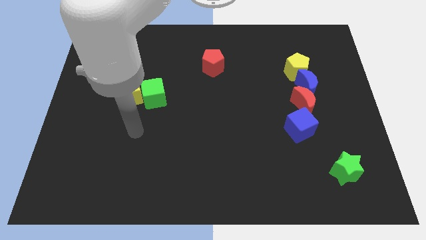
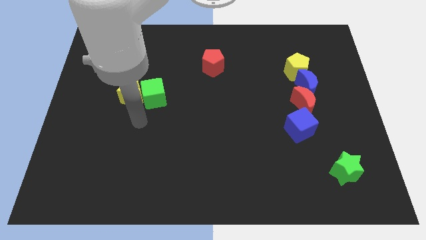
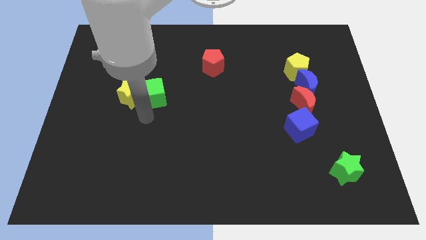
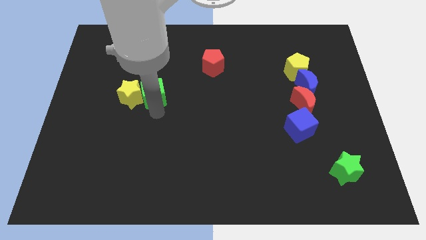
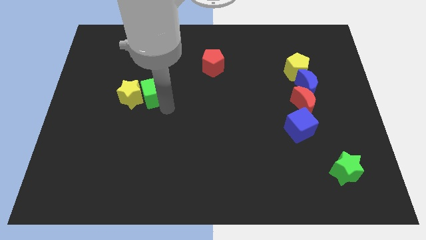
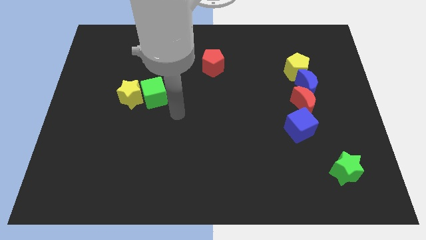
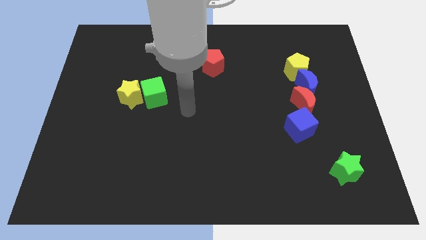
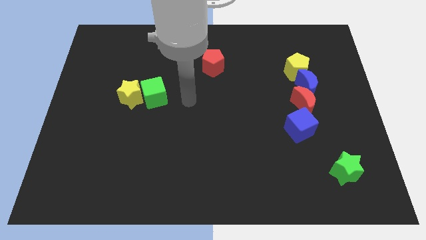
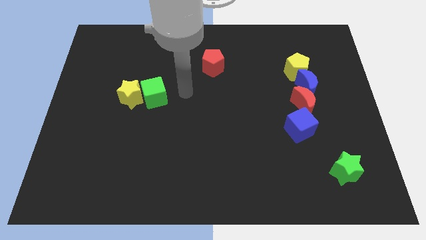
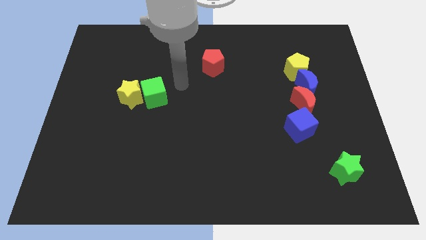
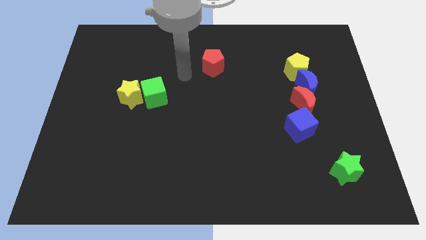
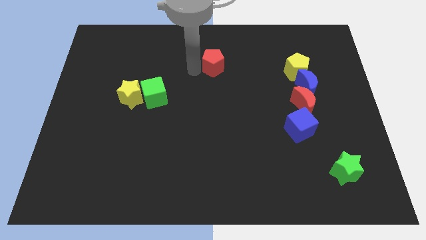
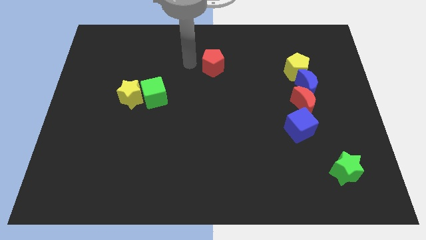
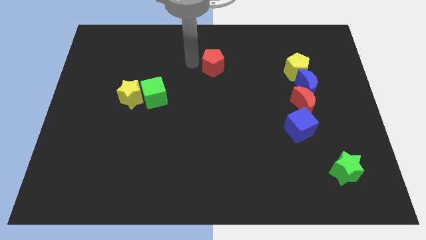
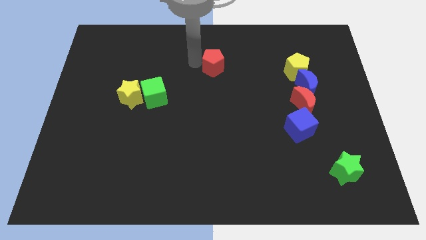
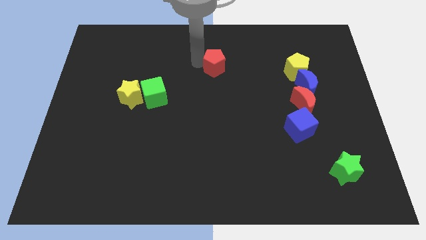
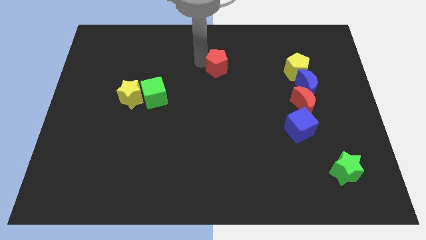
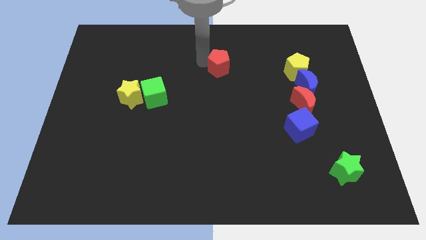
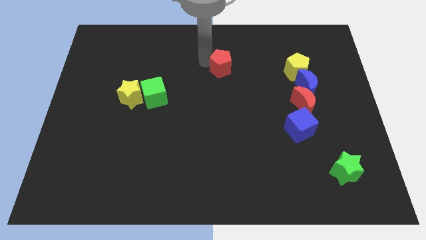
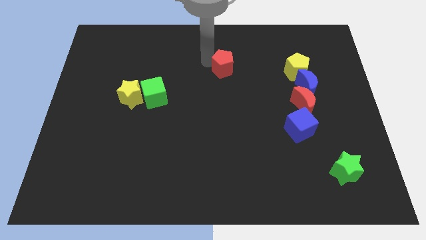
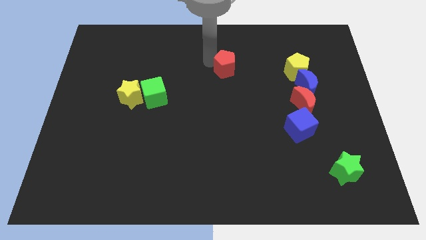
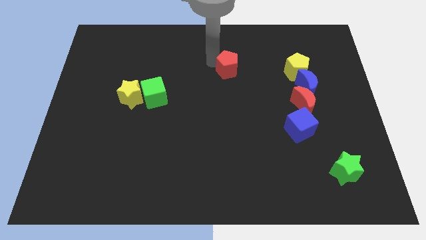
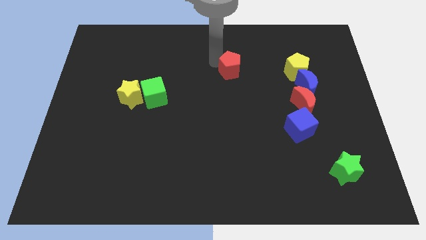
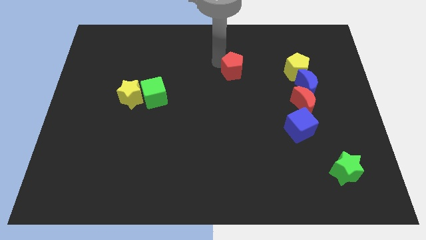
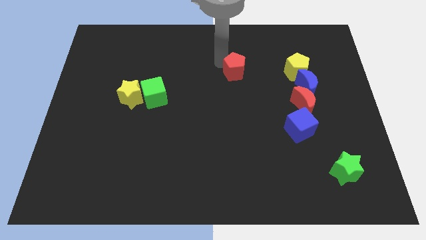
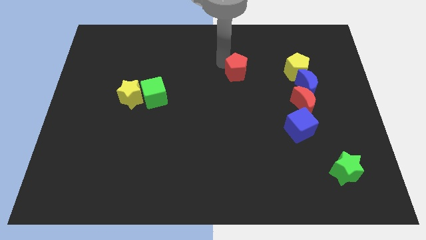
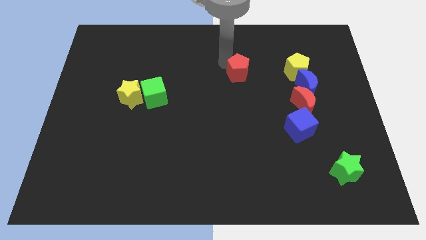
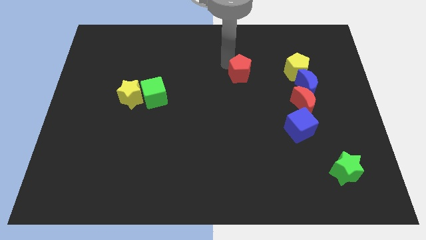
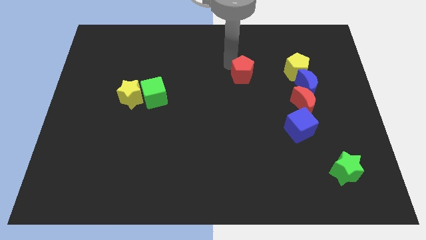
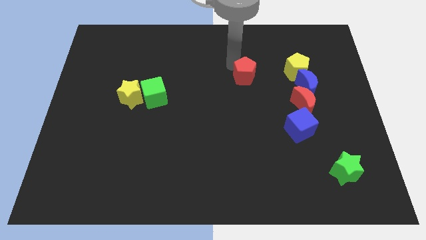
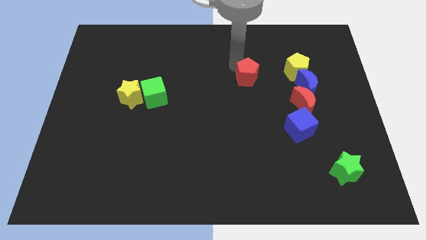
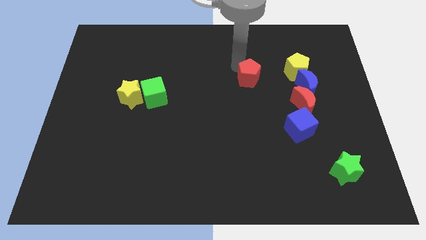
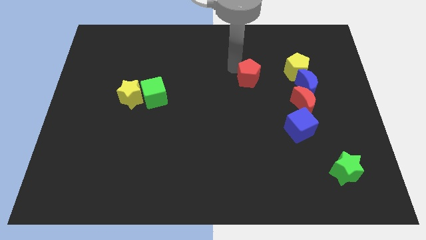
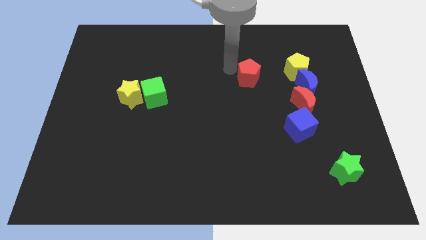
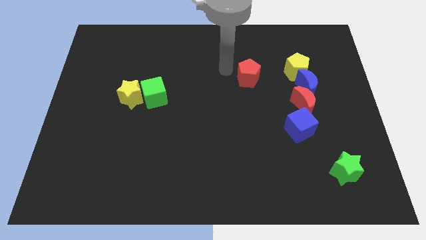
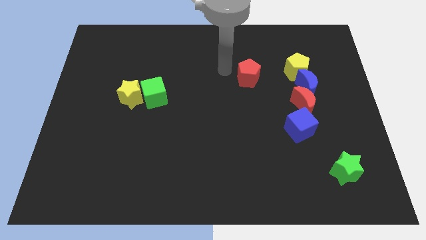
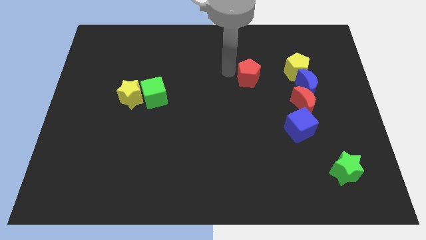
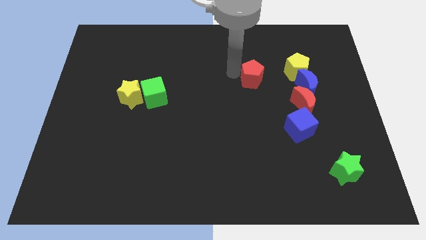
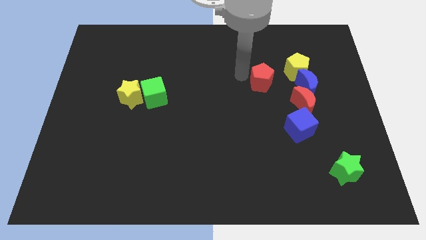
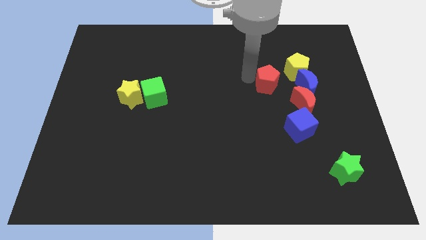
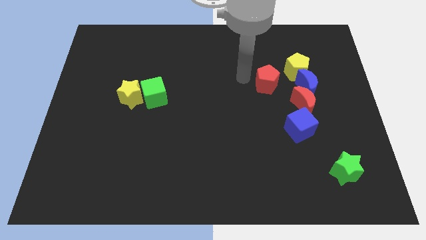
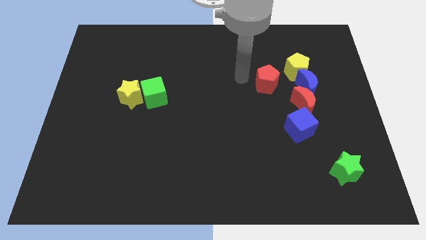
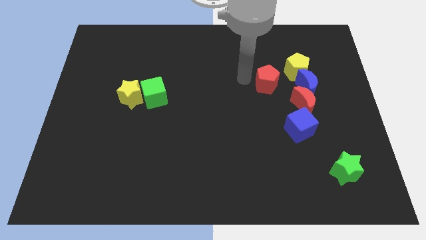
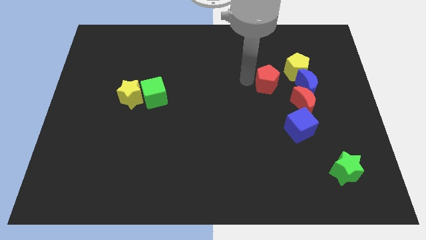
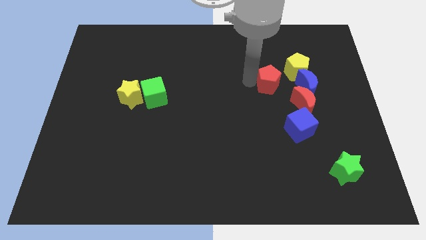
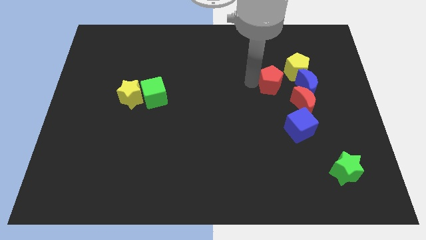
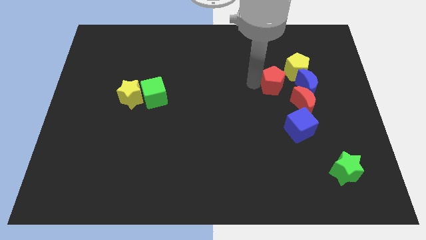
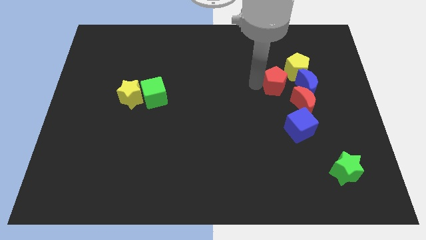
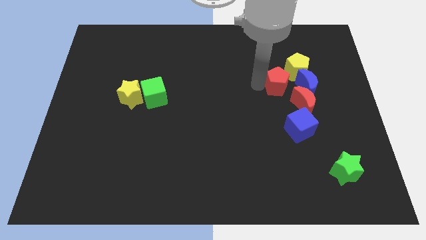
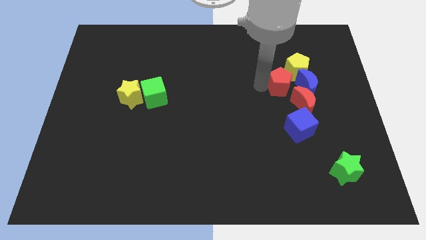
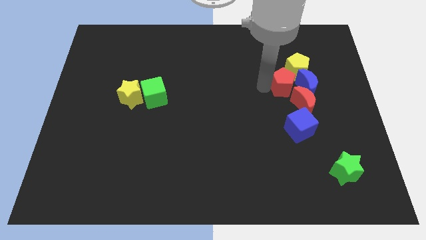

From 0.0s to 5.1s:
push the red pentagon close to the blue moon

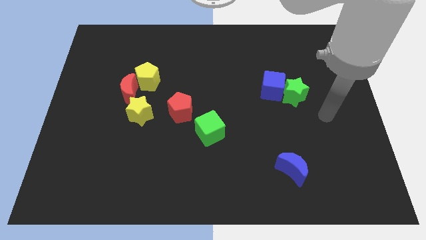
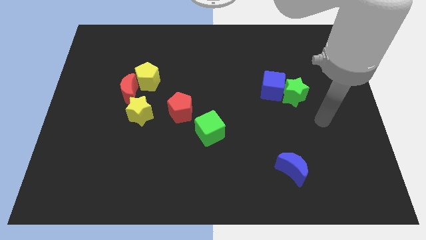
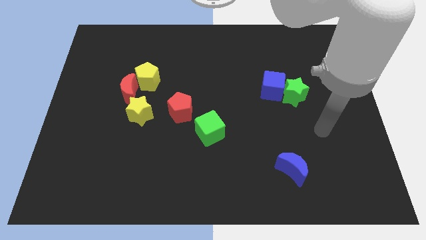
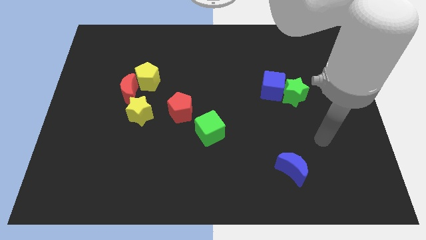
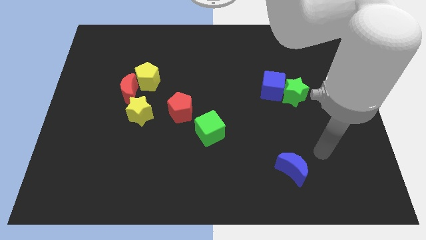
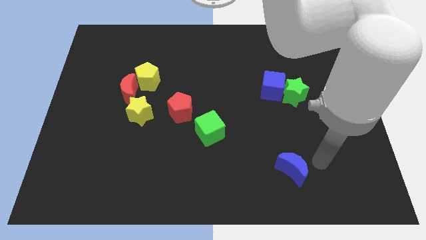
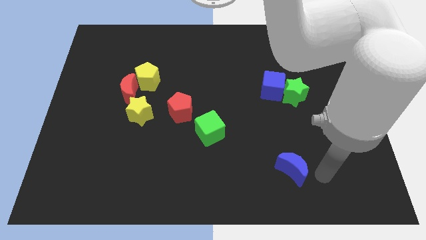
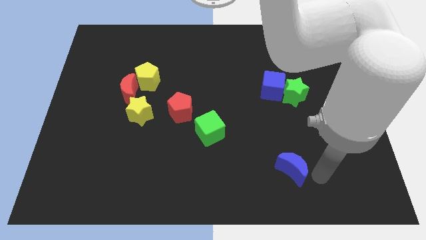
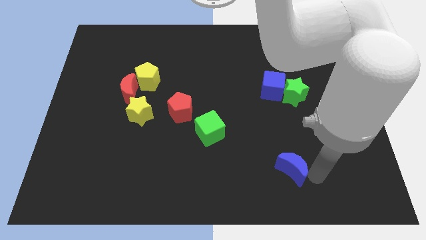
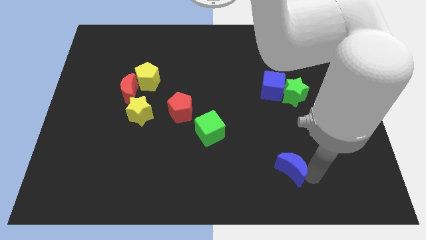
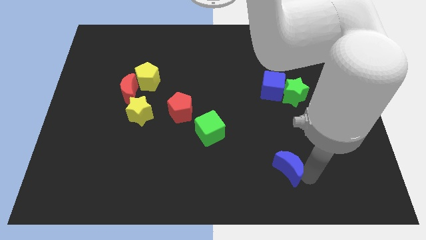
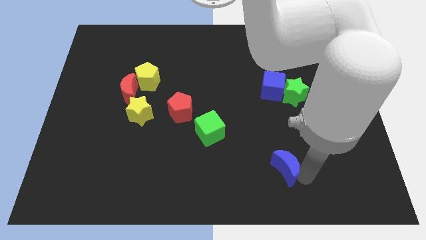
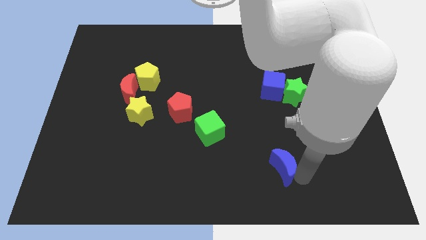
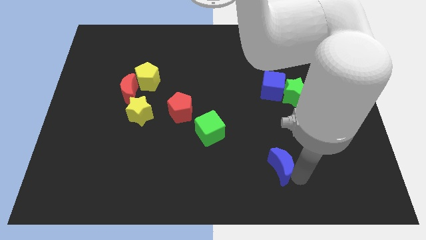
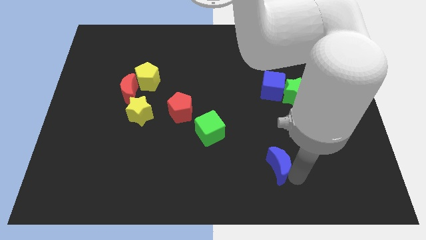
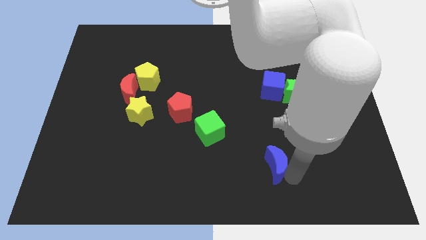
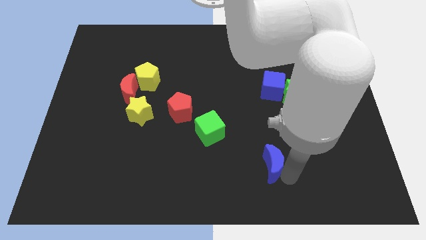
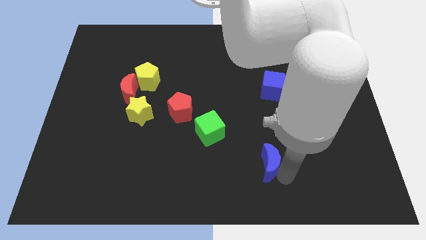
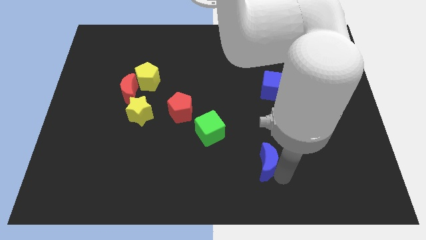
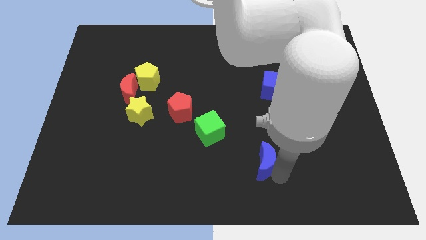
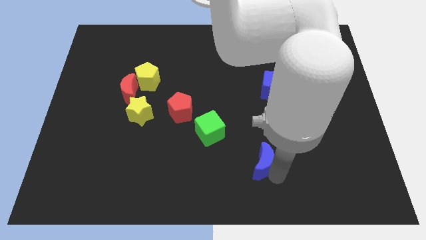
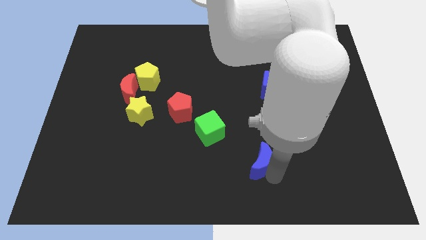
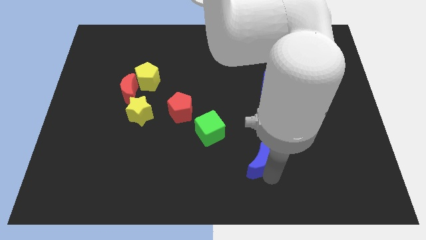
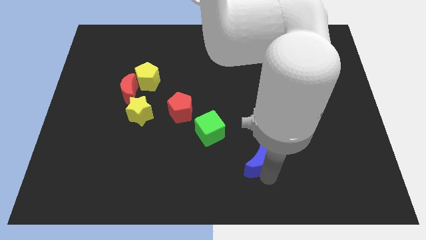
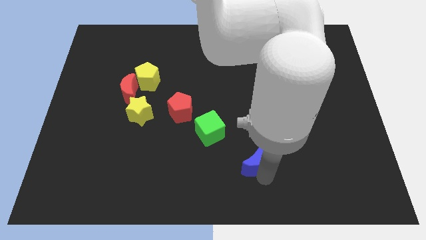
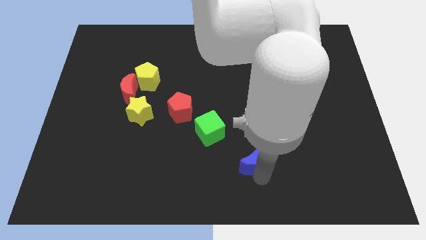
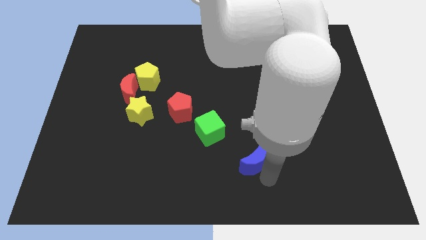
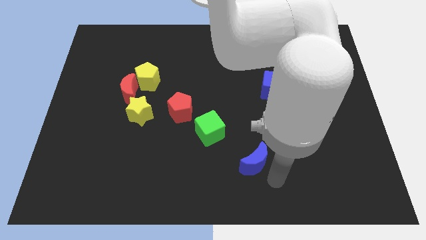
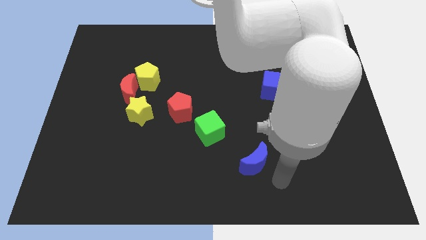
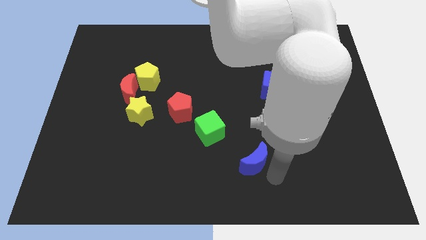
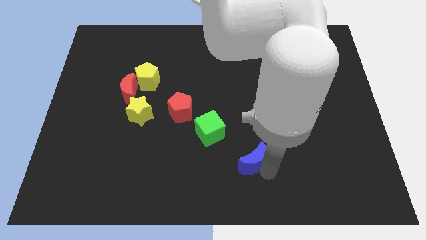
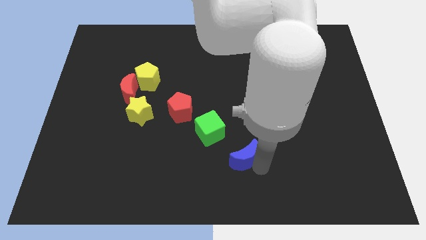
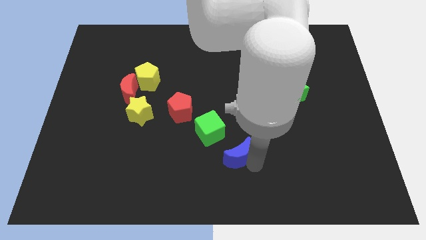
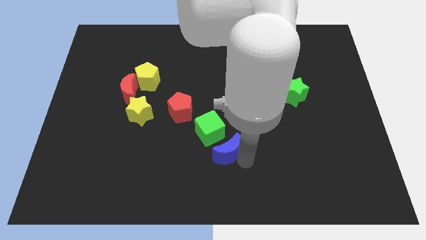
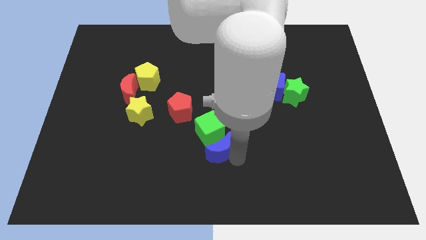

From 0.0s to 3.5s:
push the blue moon close to the green cube
